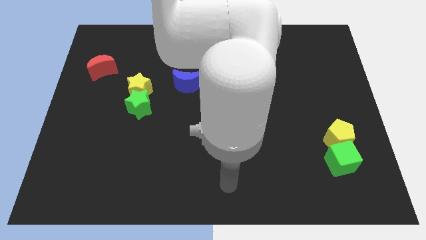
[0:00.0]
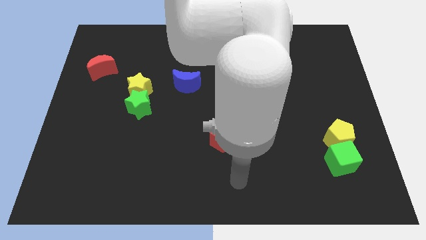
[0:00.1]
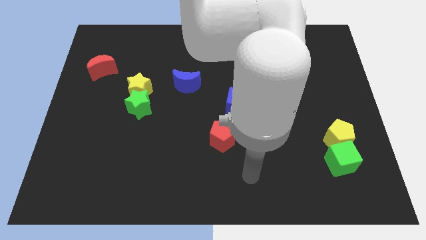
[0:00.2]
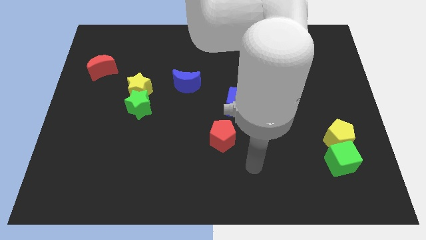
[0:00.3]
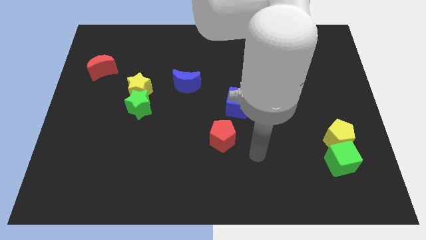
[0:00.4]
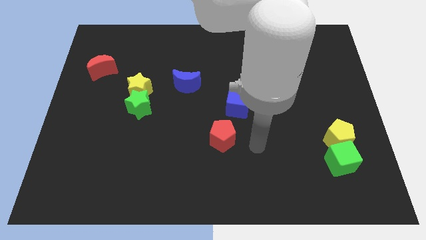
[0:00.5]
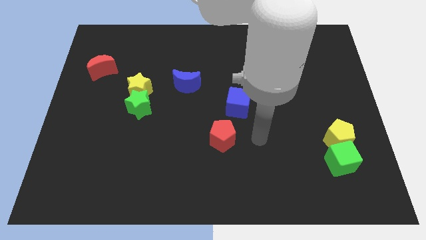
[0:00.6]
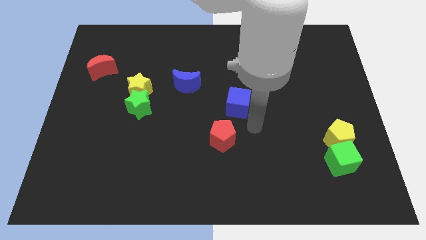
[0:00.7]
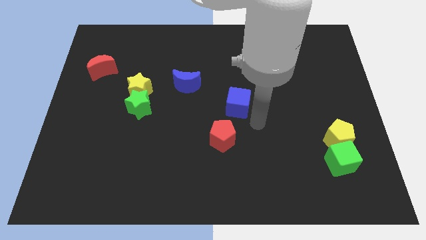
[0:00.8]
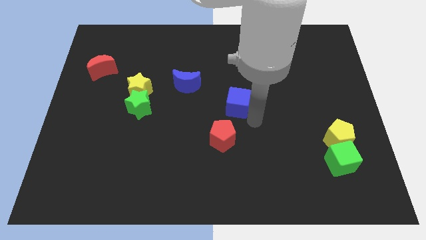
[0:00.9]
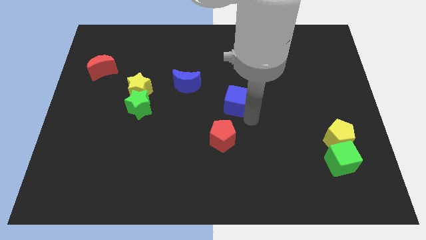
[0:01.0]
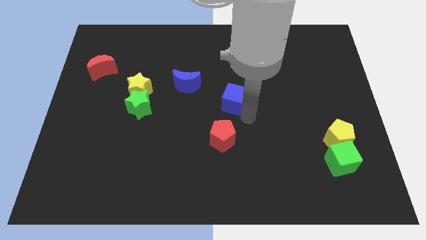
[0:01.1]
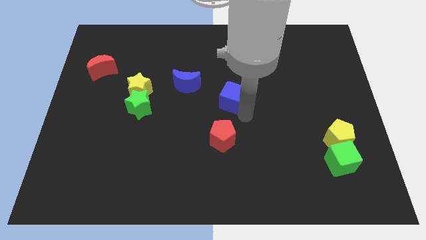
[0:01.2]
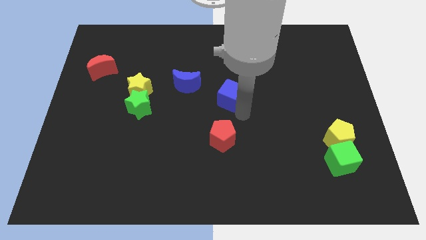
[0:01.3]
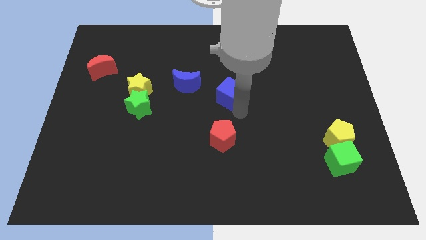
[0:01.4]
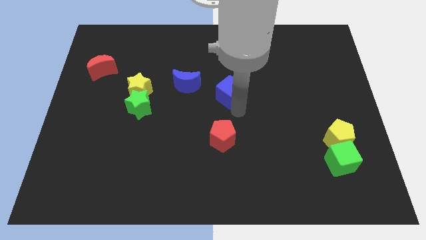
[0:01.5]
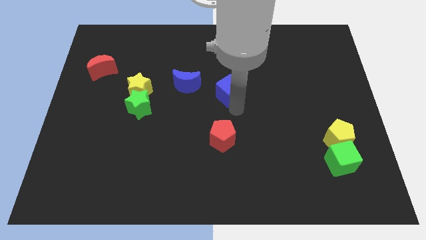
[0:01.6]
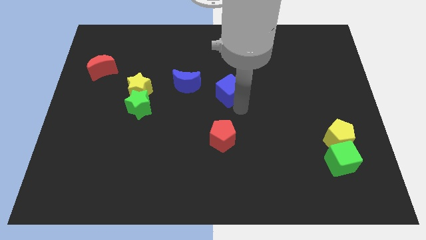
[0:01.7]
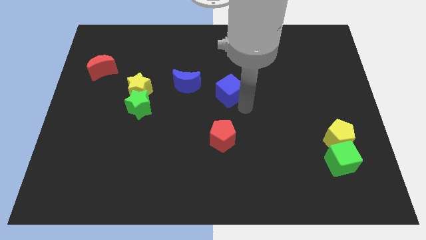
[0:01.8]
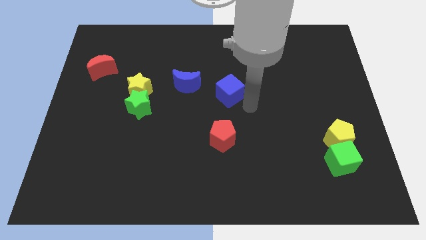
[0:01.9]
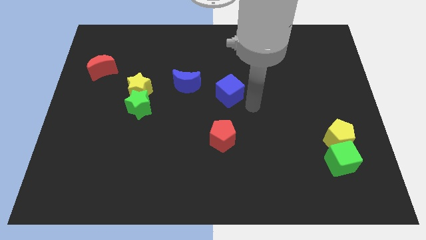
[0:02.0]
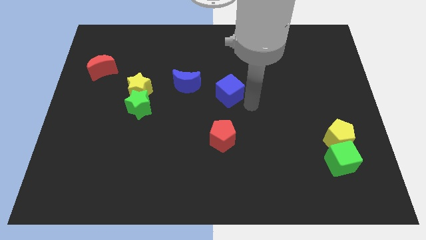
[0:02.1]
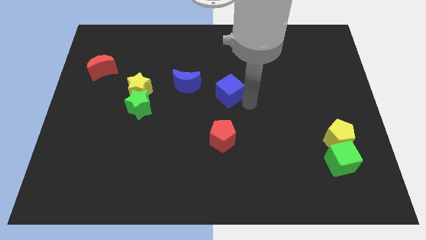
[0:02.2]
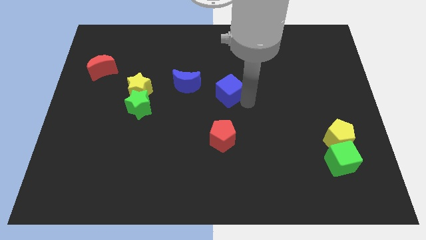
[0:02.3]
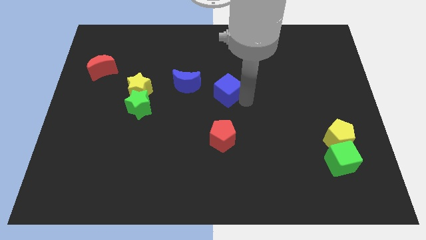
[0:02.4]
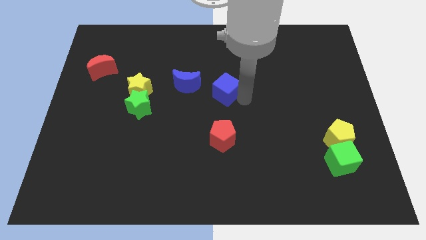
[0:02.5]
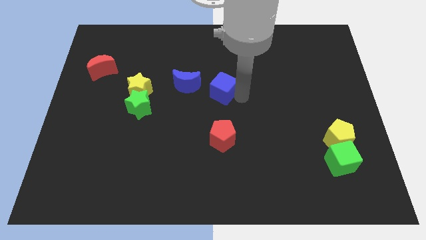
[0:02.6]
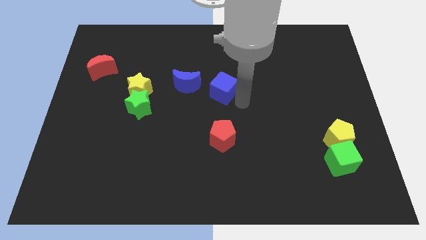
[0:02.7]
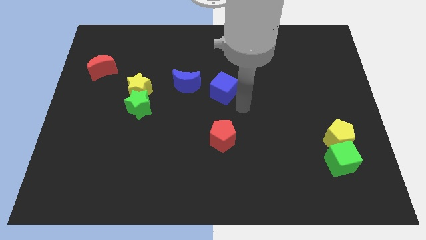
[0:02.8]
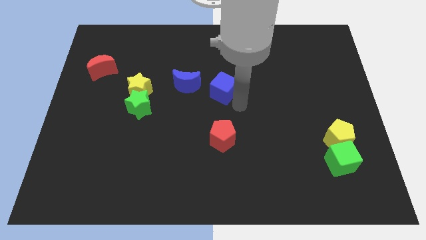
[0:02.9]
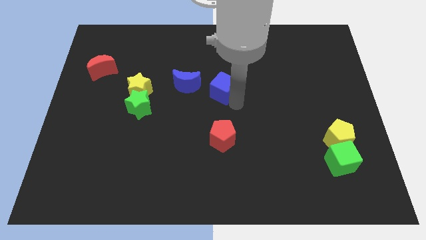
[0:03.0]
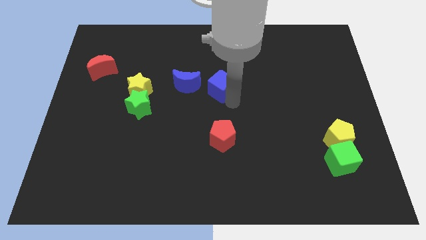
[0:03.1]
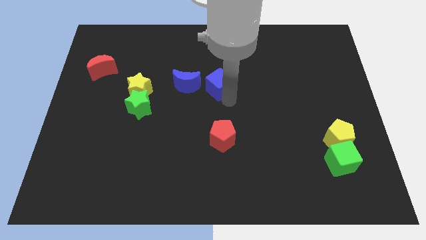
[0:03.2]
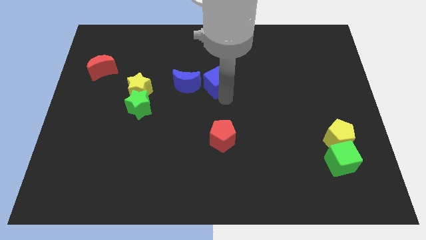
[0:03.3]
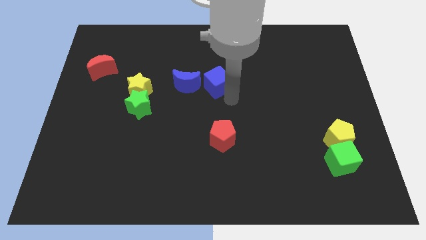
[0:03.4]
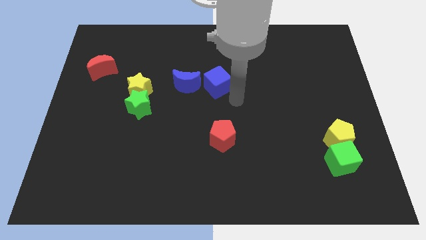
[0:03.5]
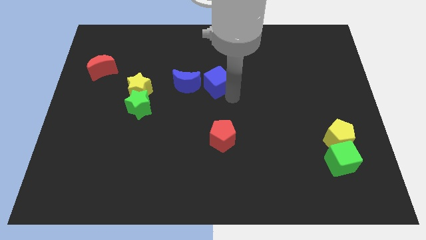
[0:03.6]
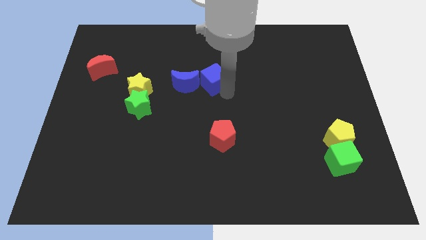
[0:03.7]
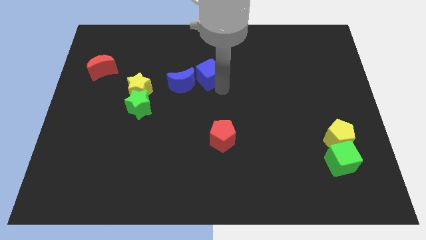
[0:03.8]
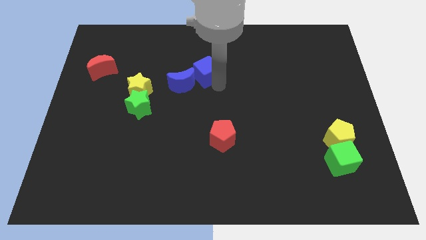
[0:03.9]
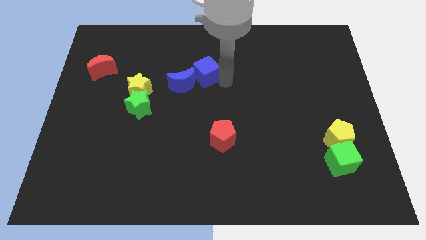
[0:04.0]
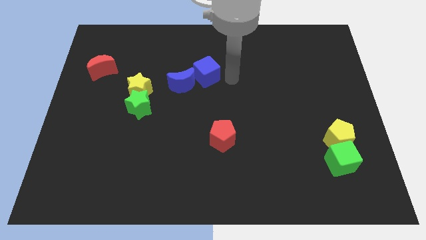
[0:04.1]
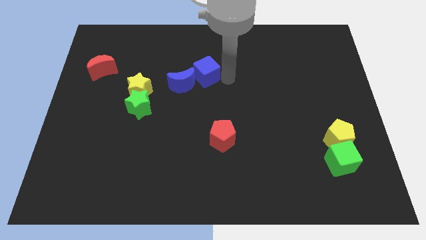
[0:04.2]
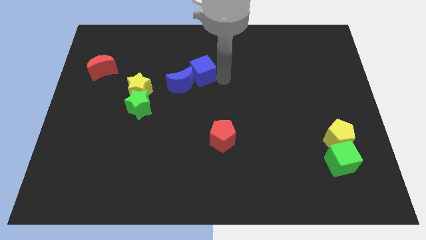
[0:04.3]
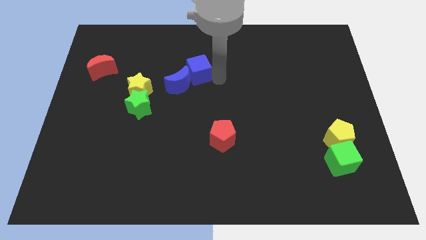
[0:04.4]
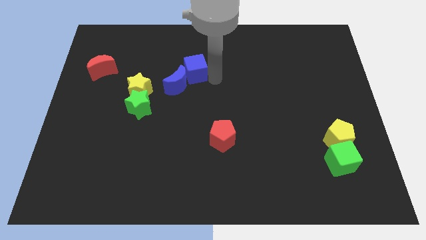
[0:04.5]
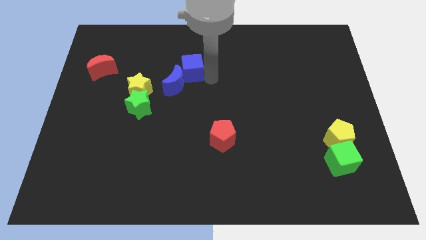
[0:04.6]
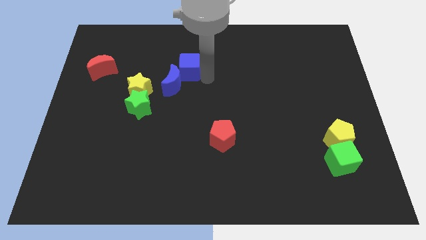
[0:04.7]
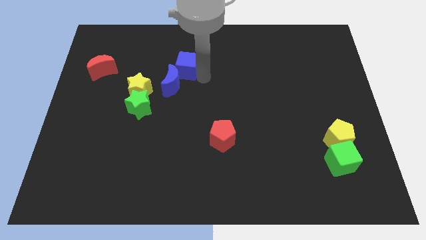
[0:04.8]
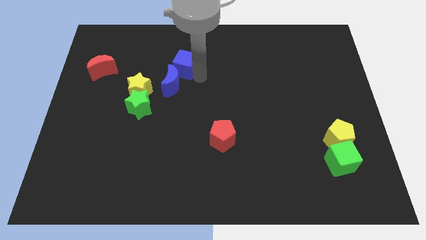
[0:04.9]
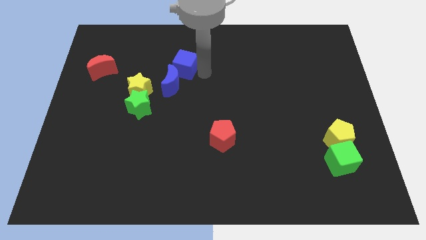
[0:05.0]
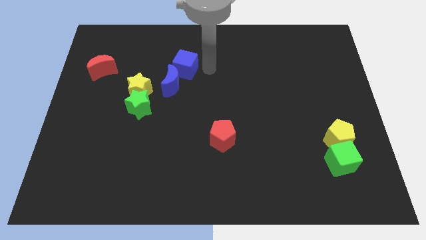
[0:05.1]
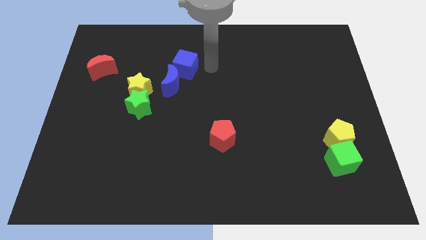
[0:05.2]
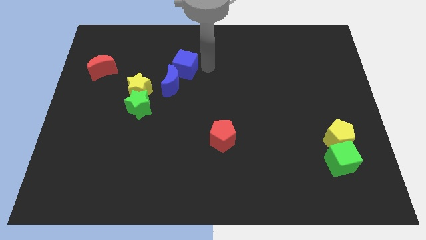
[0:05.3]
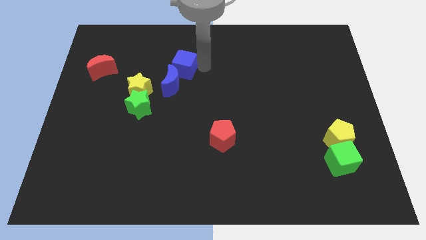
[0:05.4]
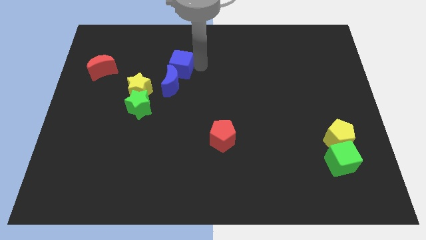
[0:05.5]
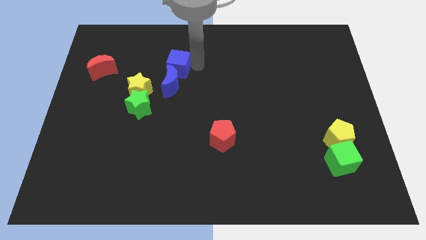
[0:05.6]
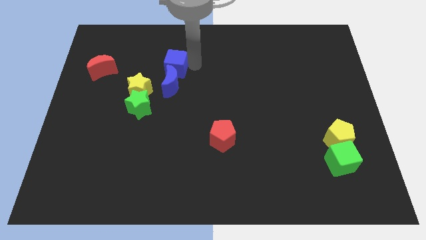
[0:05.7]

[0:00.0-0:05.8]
move the blue cube to the top left side of the blue moon
